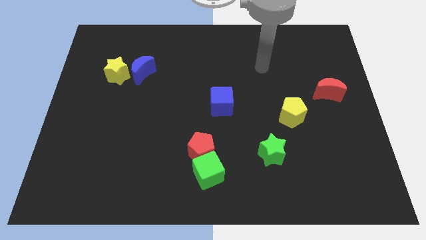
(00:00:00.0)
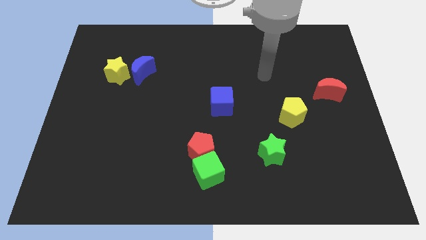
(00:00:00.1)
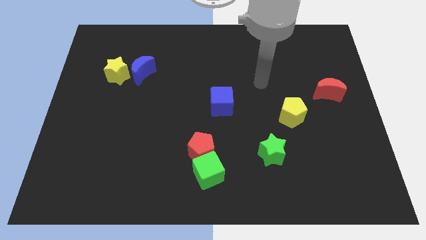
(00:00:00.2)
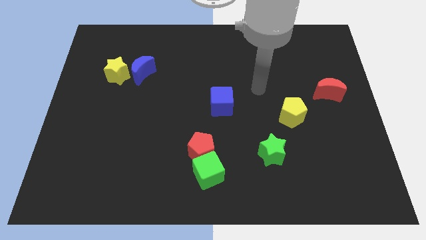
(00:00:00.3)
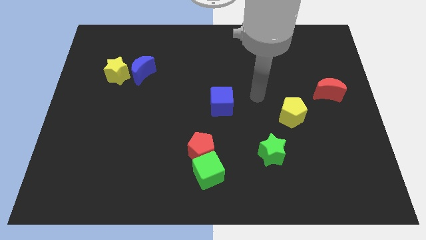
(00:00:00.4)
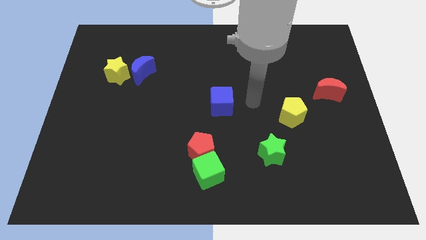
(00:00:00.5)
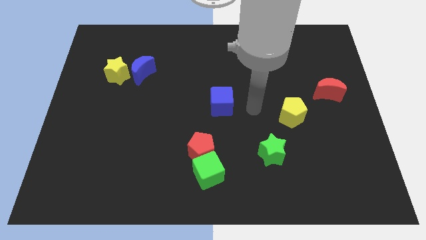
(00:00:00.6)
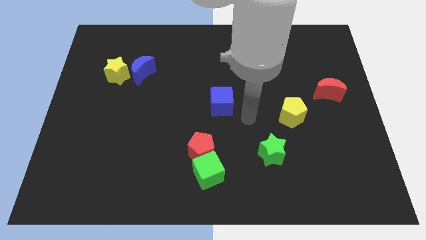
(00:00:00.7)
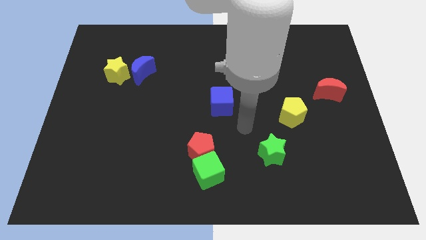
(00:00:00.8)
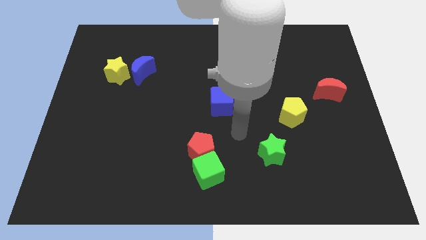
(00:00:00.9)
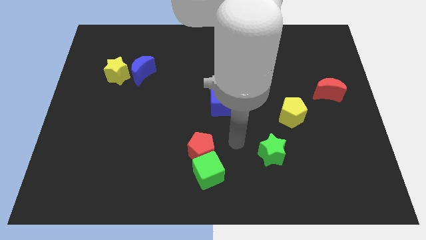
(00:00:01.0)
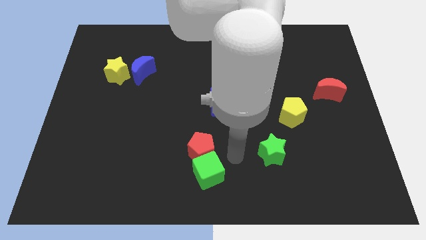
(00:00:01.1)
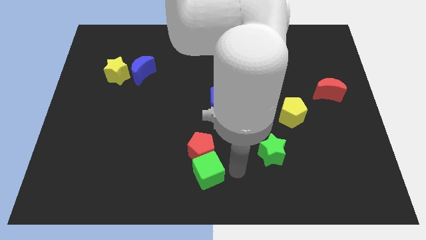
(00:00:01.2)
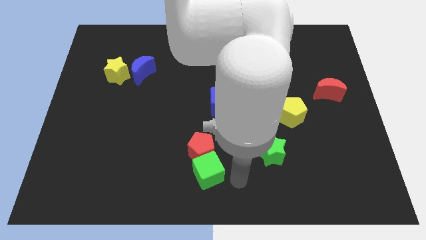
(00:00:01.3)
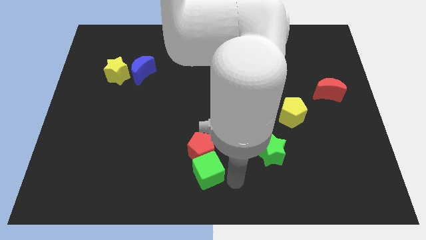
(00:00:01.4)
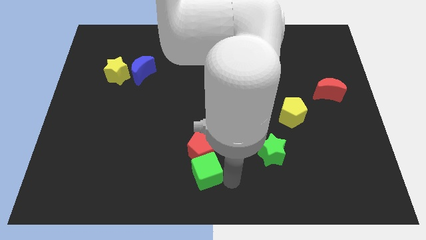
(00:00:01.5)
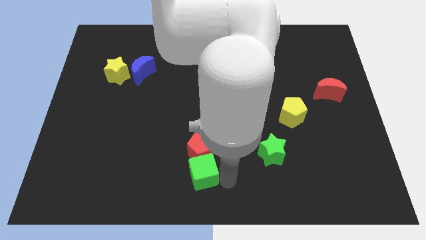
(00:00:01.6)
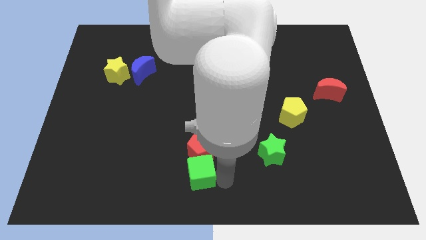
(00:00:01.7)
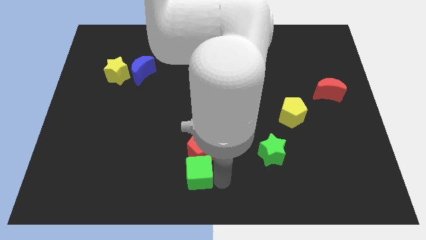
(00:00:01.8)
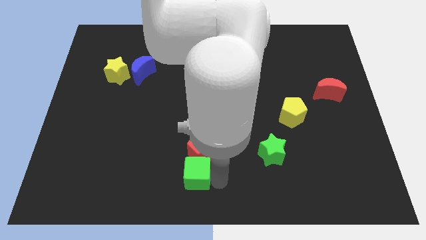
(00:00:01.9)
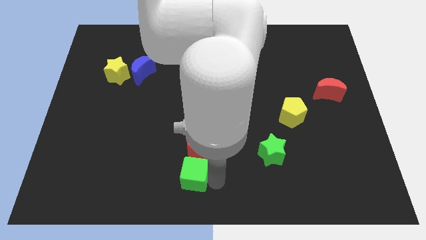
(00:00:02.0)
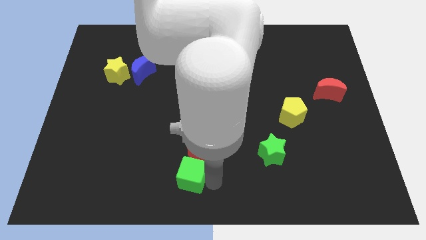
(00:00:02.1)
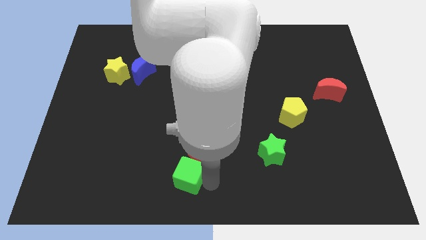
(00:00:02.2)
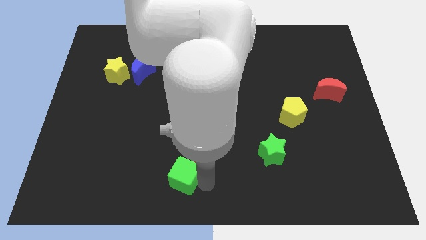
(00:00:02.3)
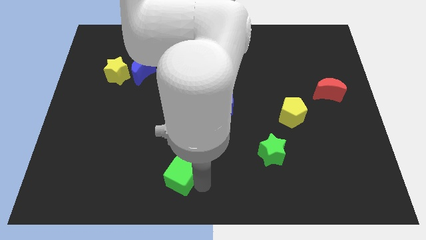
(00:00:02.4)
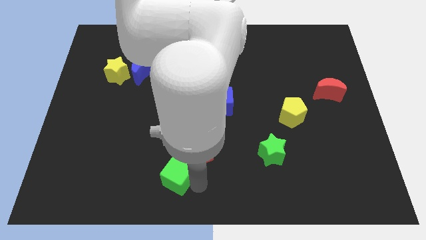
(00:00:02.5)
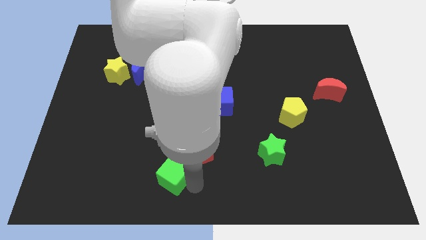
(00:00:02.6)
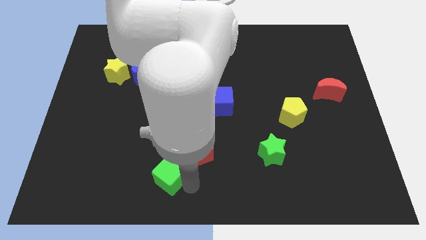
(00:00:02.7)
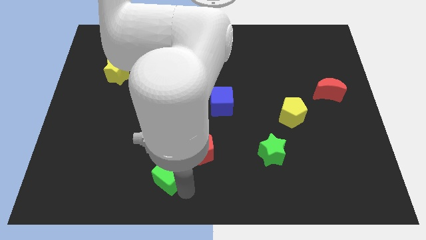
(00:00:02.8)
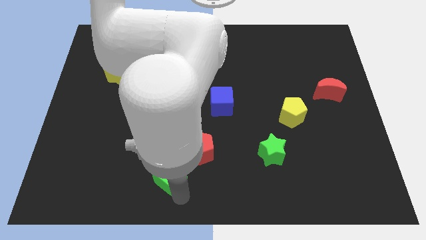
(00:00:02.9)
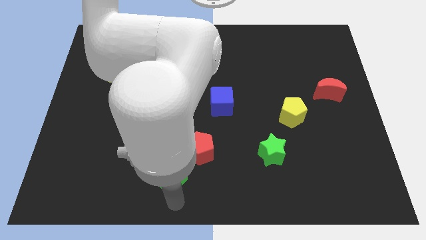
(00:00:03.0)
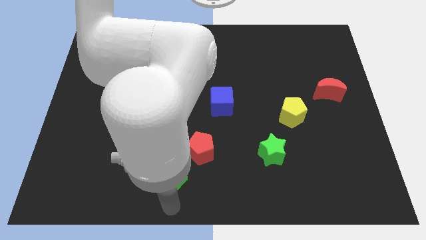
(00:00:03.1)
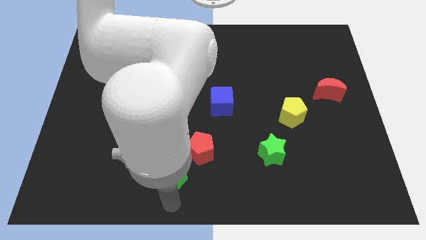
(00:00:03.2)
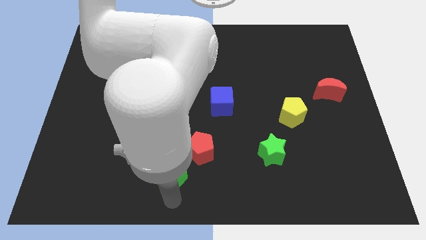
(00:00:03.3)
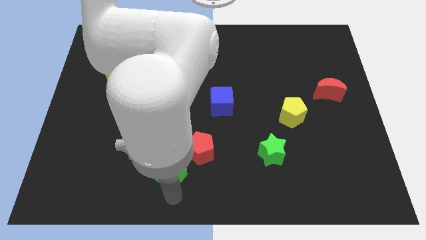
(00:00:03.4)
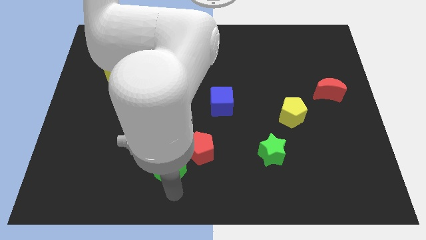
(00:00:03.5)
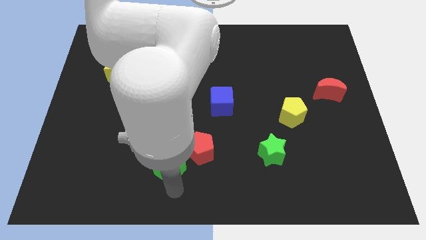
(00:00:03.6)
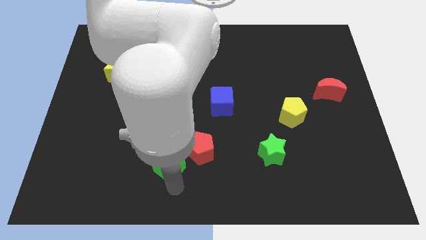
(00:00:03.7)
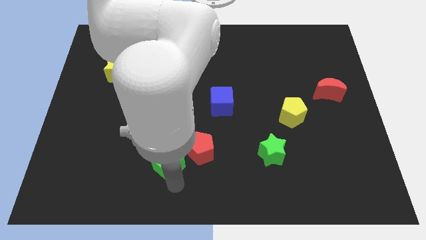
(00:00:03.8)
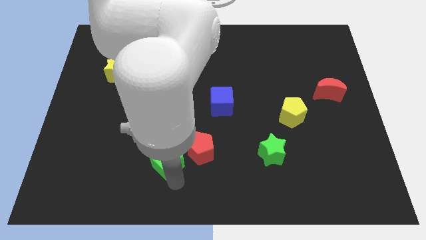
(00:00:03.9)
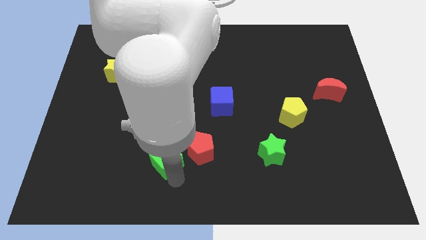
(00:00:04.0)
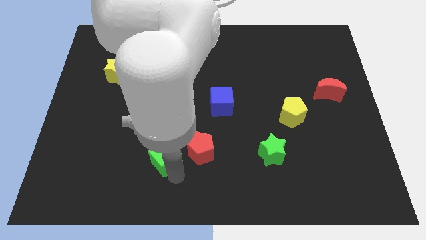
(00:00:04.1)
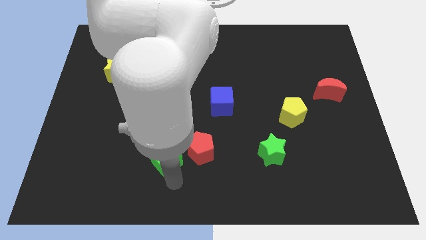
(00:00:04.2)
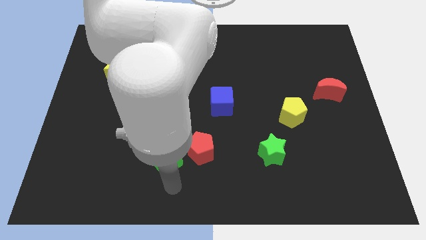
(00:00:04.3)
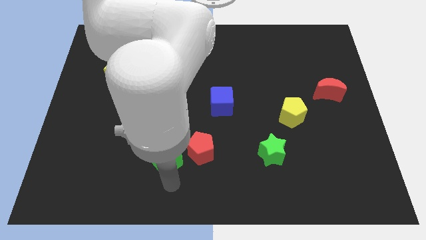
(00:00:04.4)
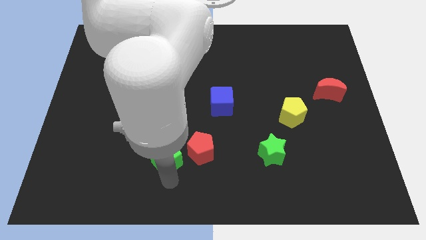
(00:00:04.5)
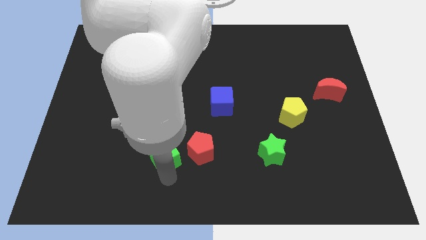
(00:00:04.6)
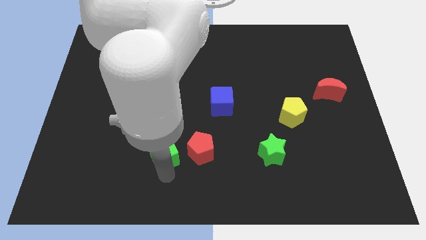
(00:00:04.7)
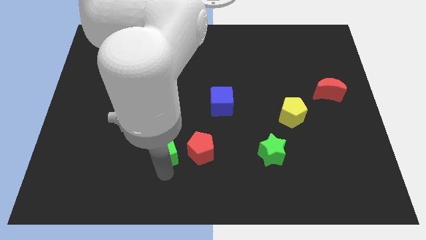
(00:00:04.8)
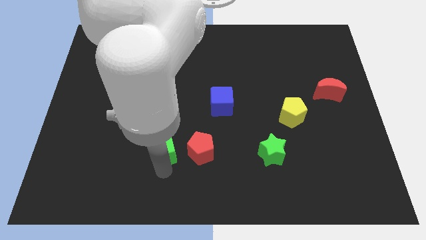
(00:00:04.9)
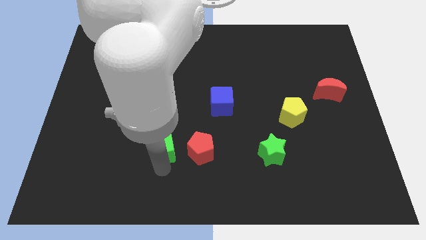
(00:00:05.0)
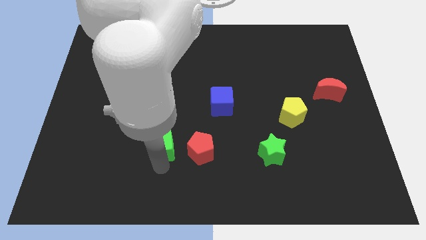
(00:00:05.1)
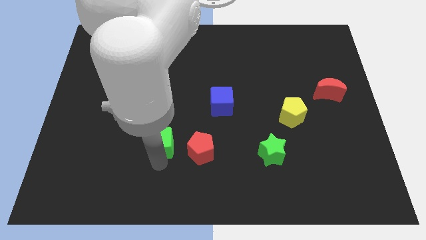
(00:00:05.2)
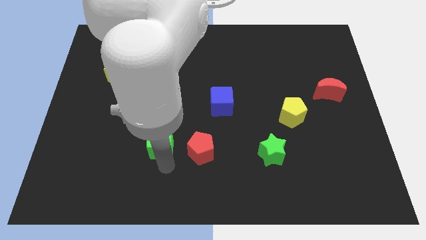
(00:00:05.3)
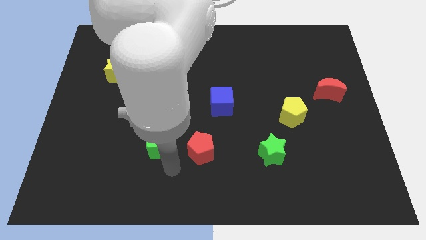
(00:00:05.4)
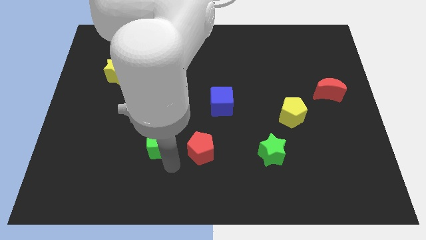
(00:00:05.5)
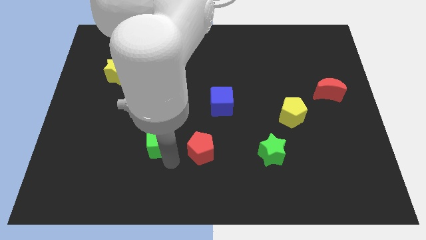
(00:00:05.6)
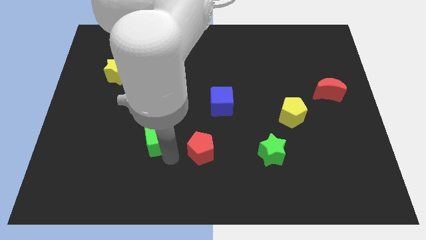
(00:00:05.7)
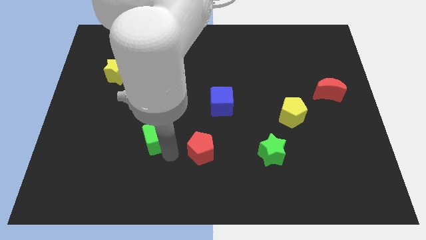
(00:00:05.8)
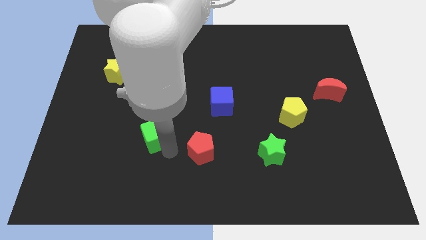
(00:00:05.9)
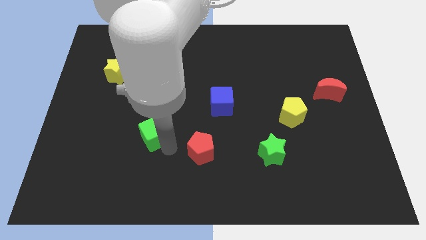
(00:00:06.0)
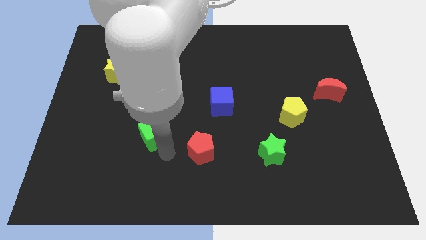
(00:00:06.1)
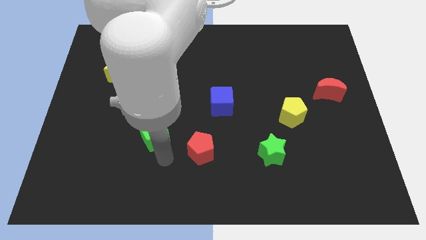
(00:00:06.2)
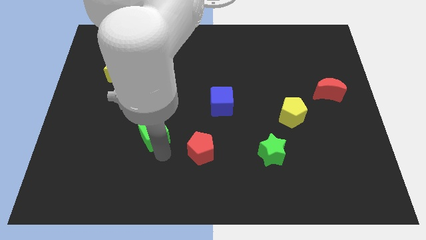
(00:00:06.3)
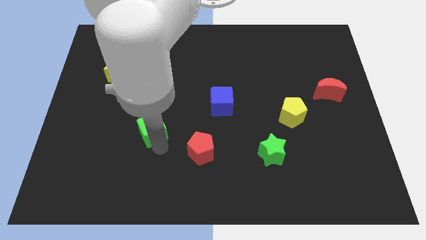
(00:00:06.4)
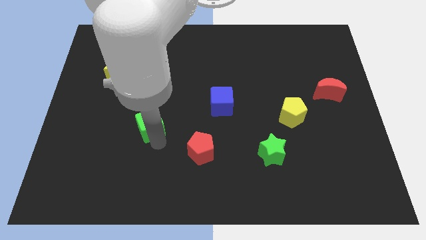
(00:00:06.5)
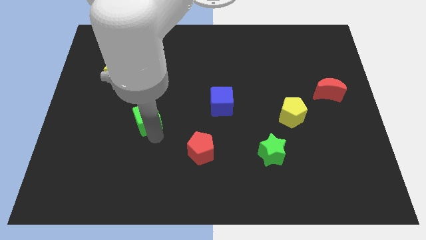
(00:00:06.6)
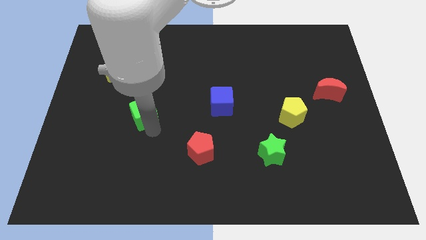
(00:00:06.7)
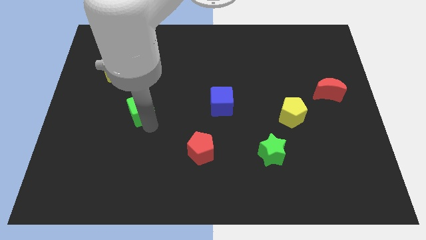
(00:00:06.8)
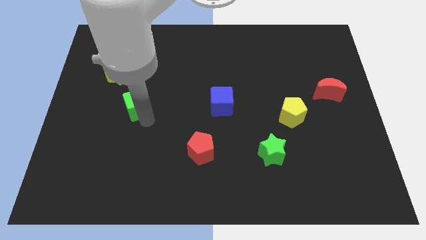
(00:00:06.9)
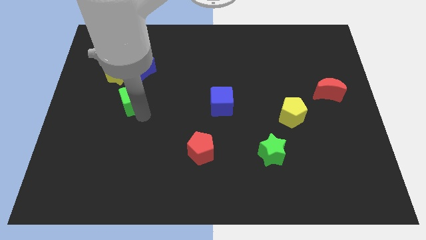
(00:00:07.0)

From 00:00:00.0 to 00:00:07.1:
slide the green cube diagonally down and to the right of the yellow star
